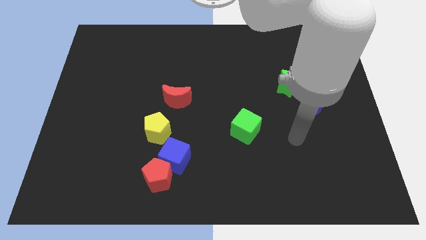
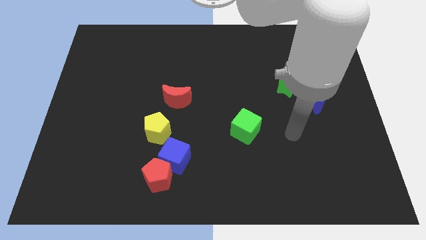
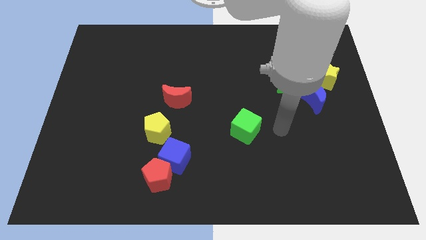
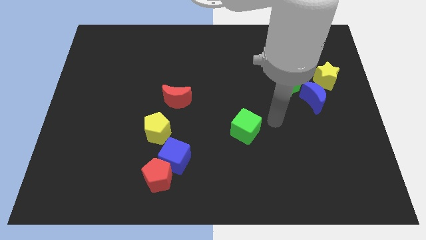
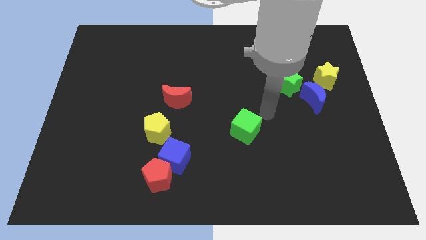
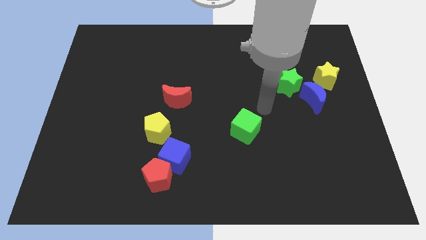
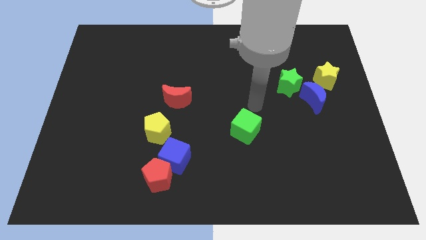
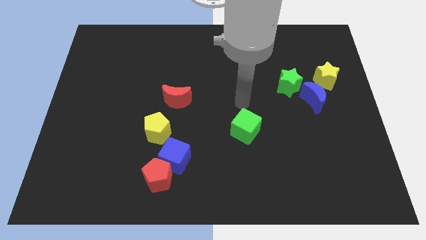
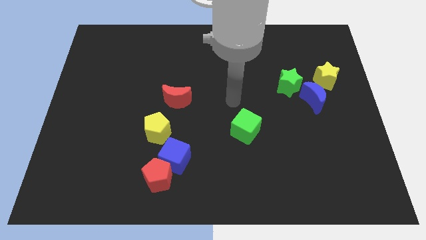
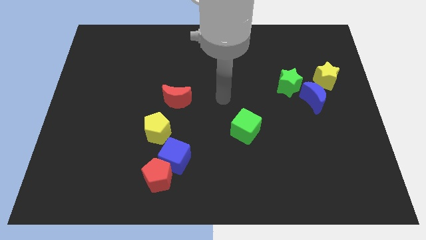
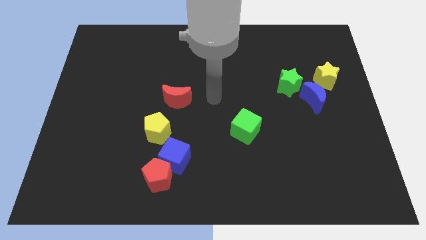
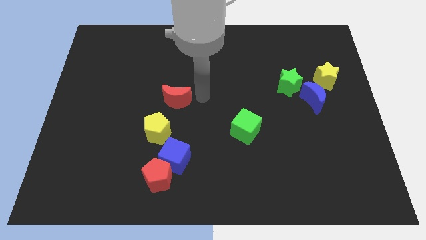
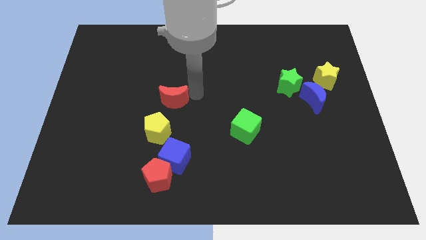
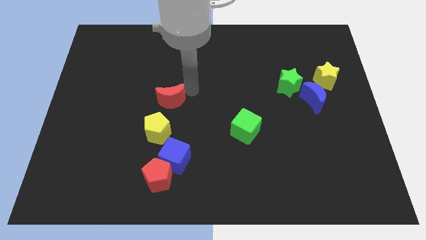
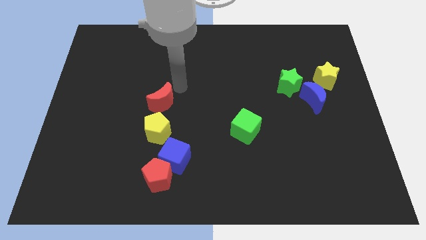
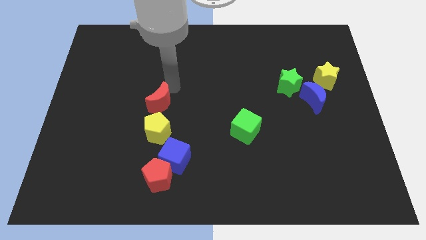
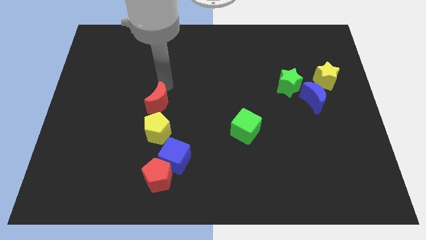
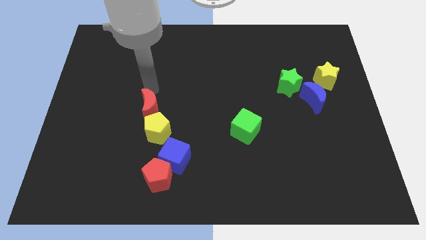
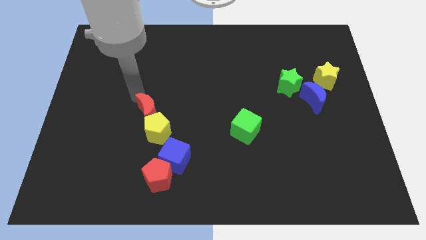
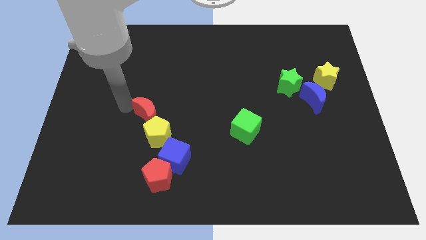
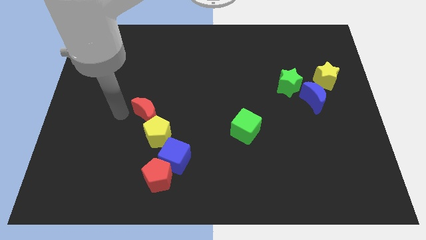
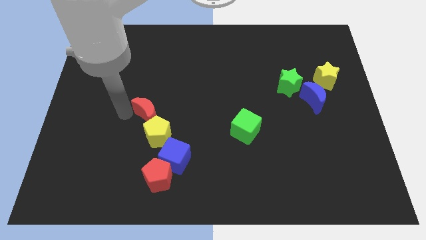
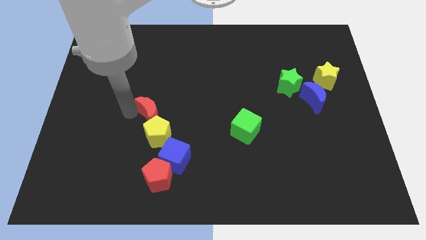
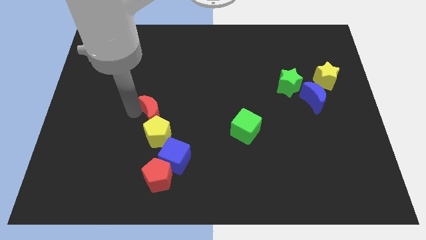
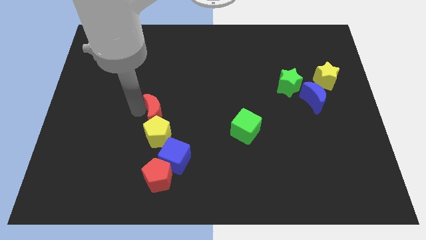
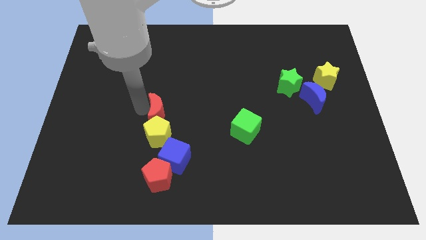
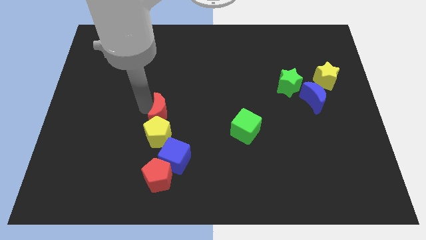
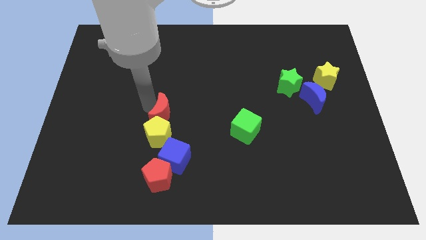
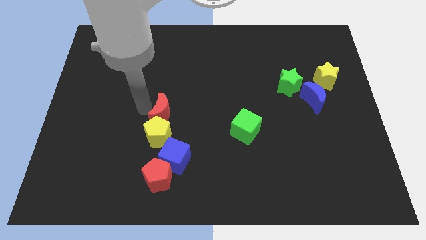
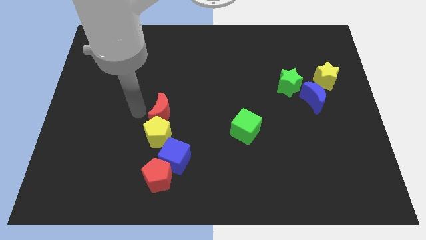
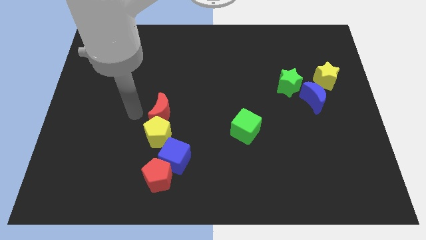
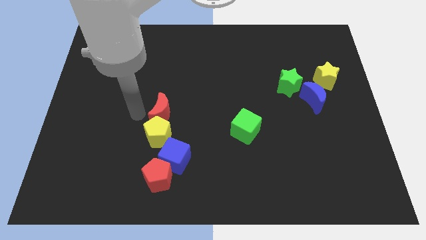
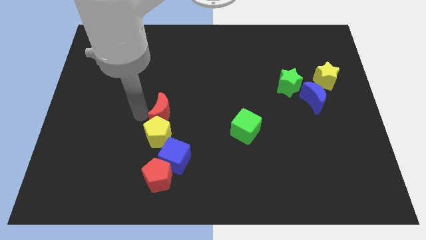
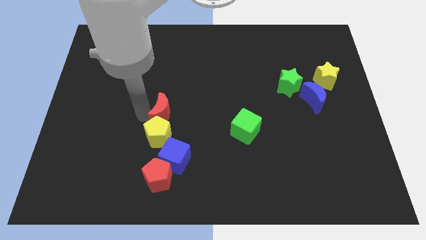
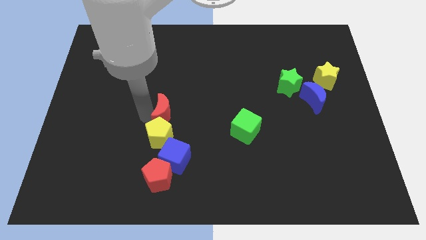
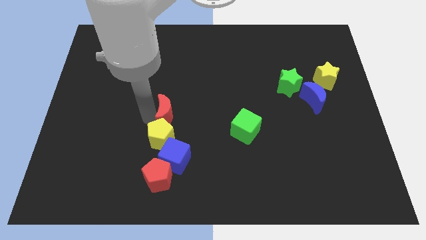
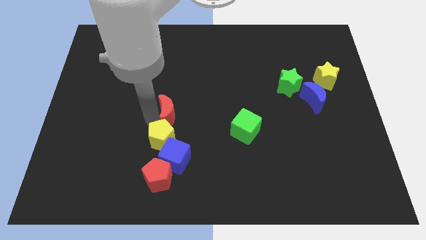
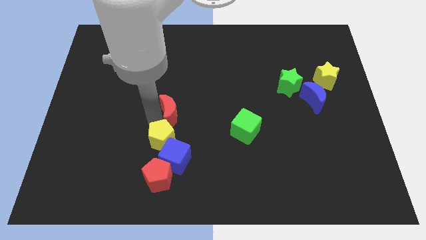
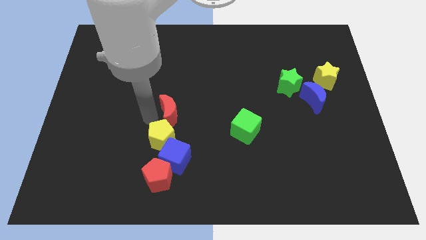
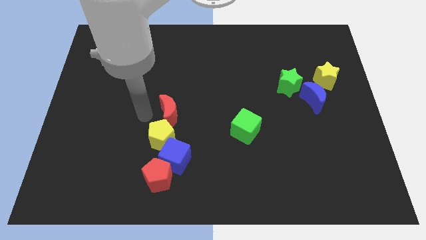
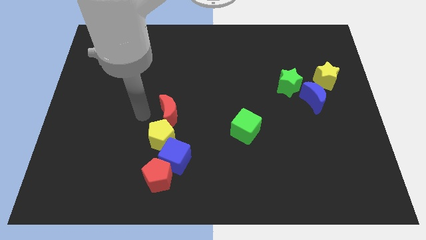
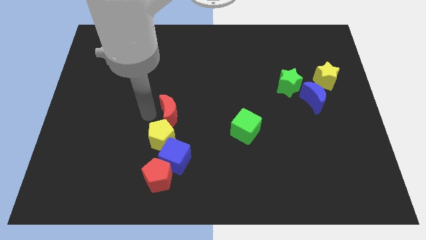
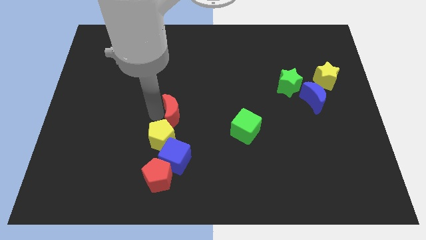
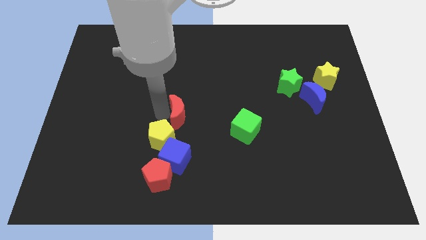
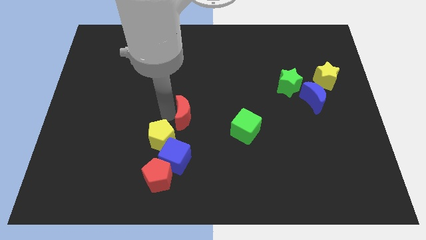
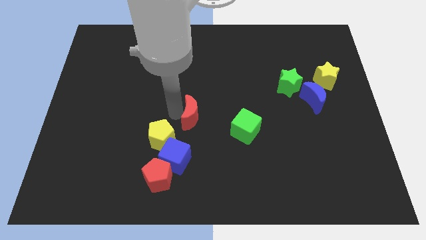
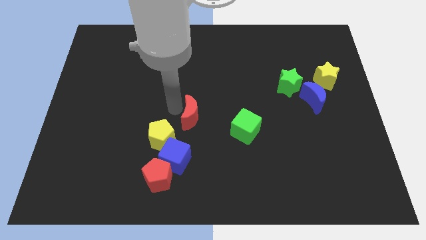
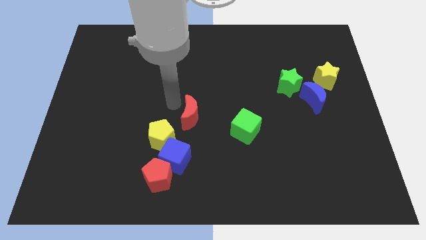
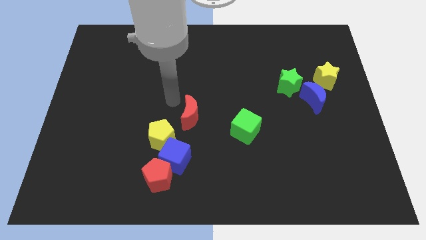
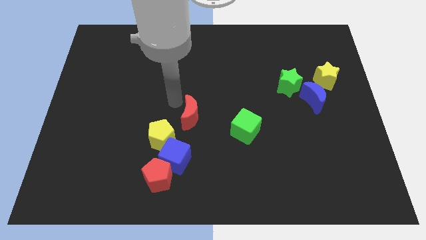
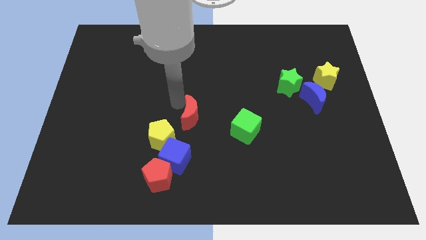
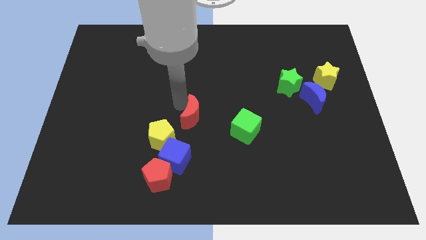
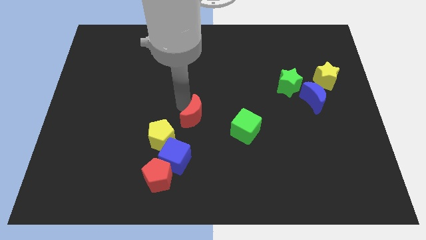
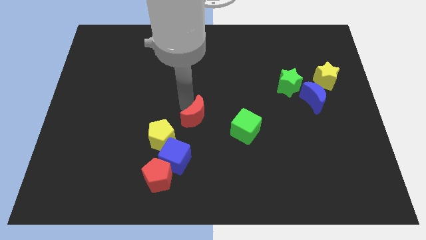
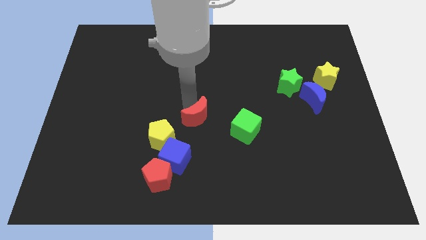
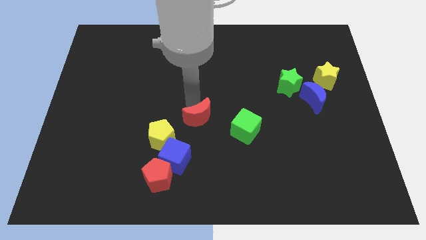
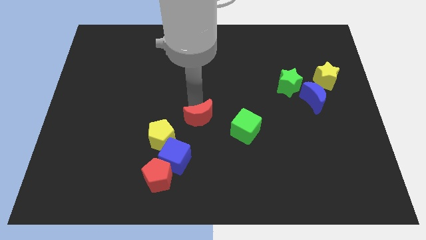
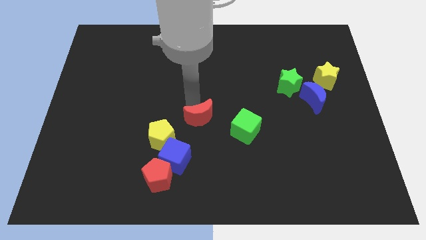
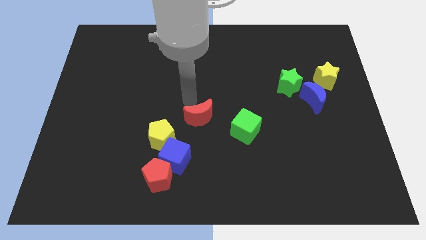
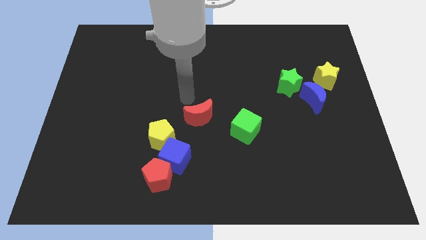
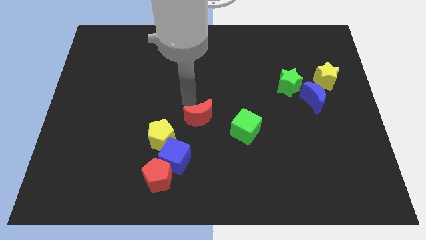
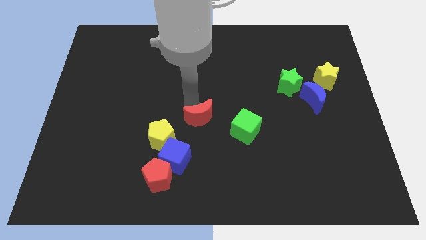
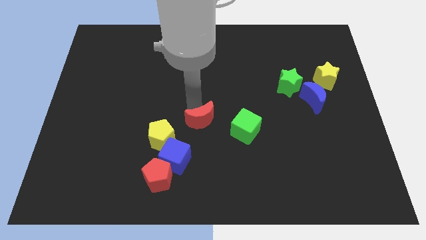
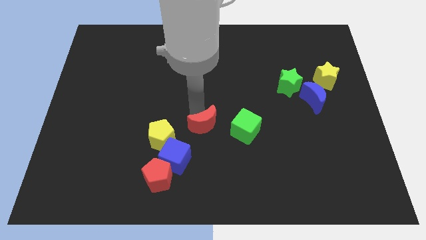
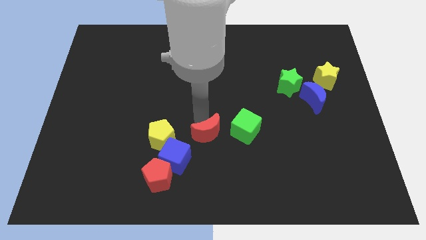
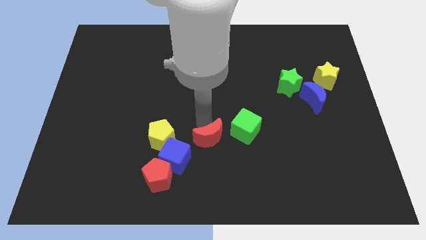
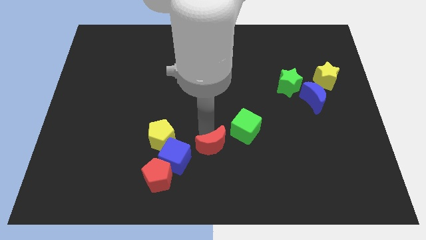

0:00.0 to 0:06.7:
push the red moon just right of the blue cube
